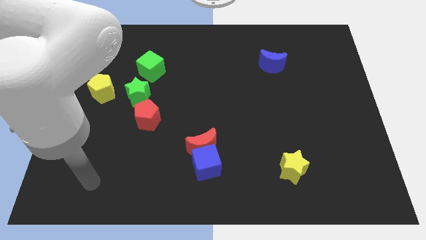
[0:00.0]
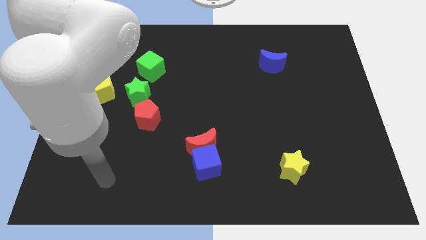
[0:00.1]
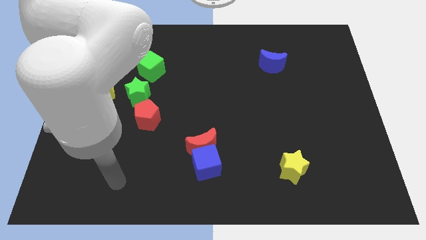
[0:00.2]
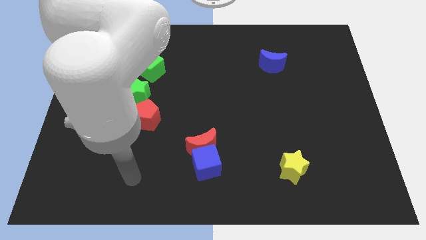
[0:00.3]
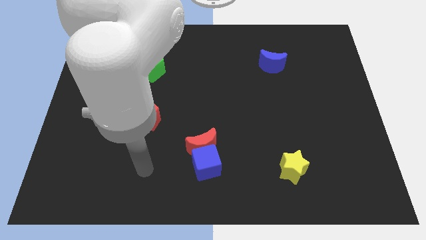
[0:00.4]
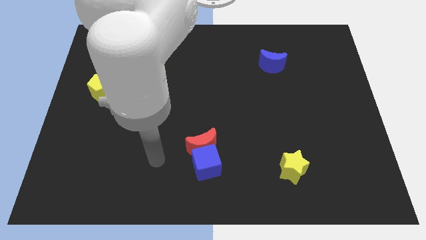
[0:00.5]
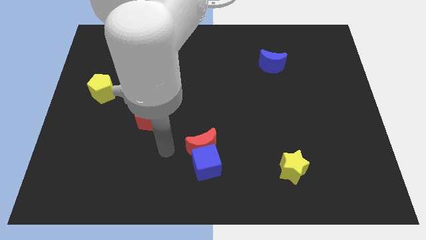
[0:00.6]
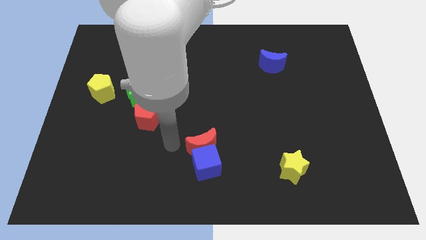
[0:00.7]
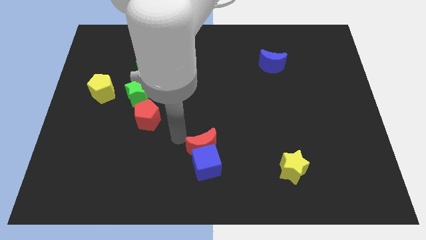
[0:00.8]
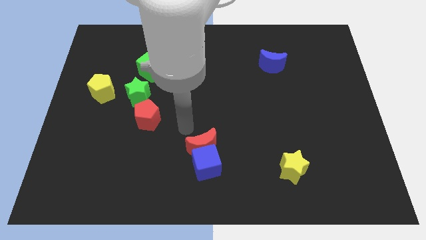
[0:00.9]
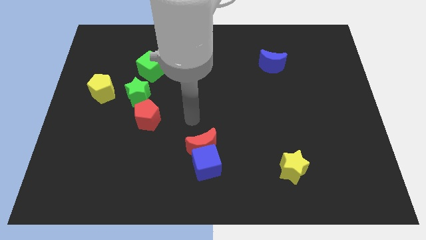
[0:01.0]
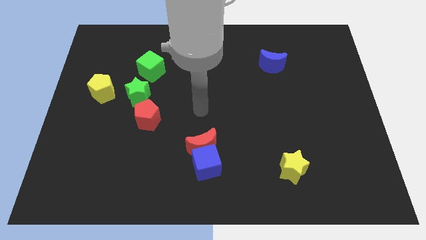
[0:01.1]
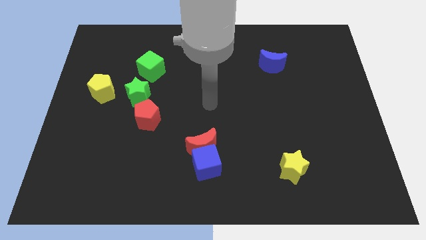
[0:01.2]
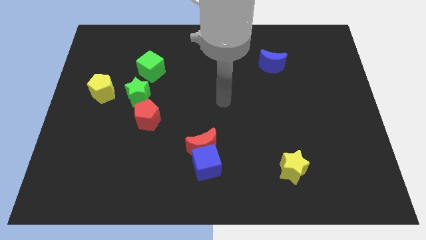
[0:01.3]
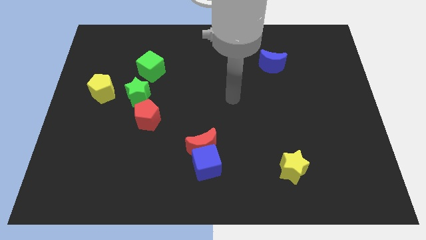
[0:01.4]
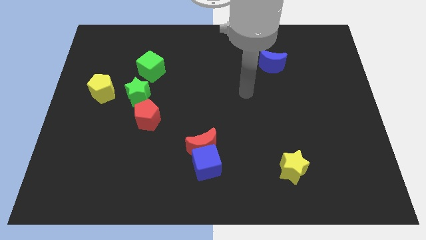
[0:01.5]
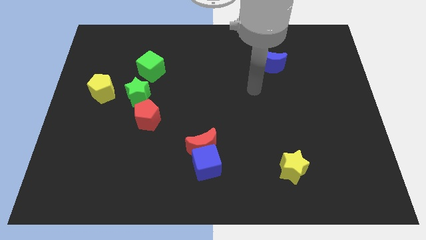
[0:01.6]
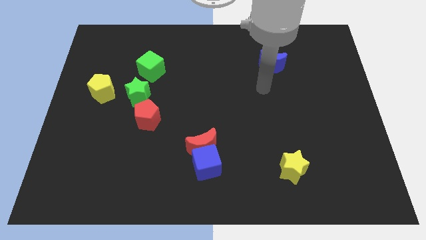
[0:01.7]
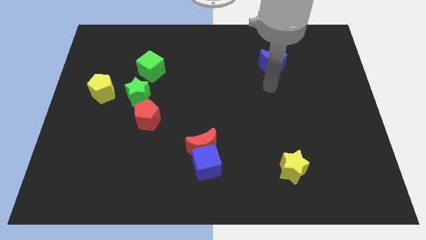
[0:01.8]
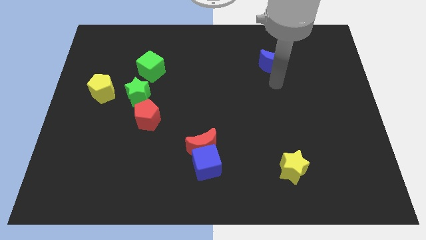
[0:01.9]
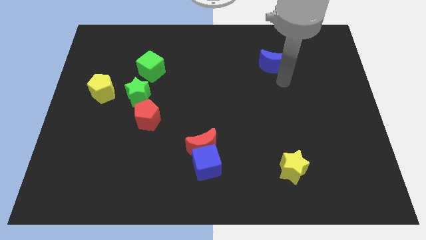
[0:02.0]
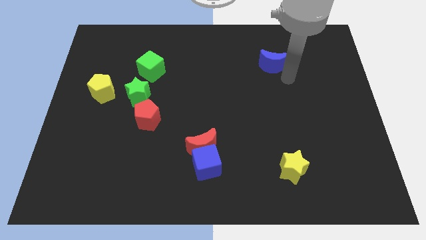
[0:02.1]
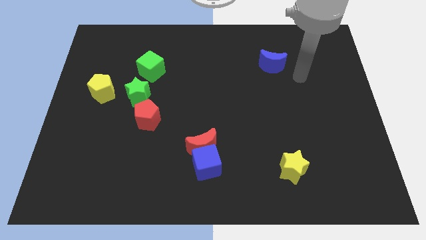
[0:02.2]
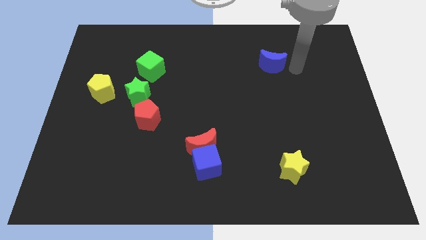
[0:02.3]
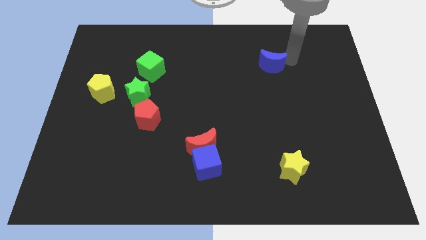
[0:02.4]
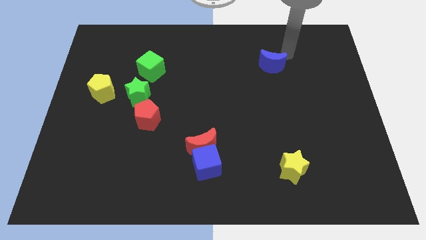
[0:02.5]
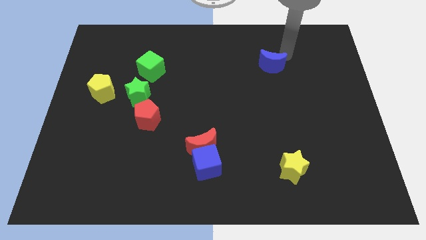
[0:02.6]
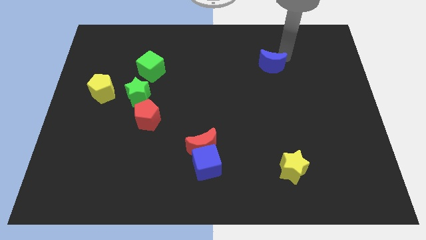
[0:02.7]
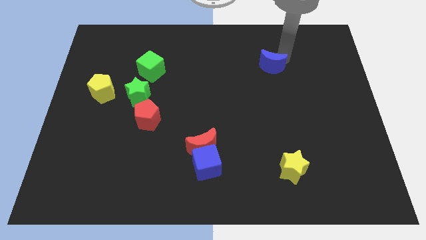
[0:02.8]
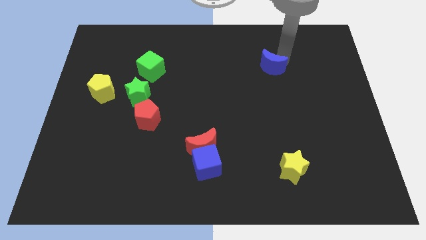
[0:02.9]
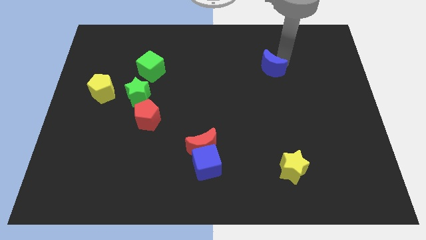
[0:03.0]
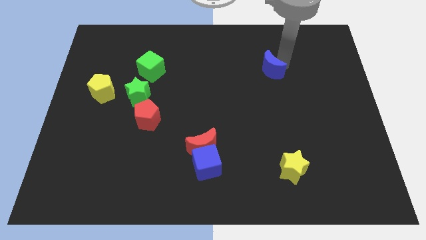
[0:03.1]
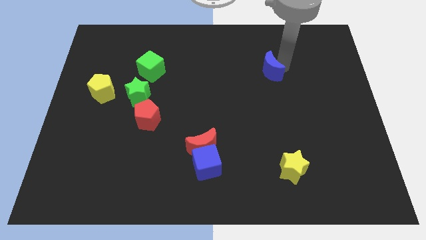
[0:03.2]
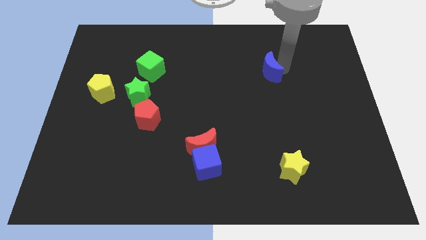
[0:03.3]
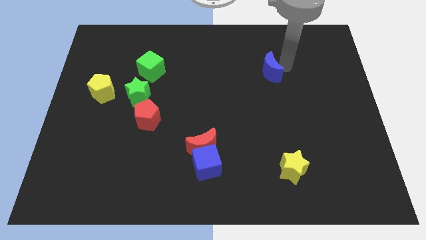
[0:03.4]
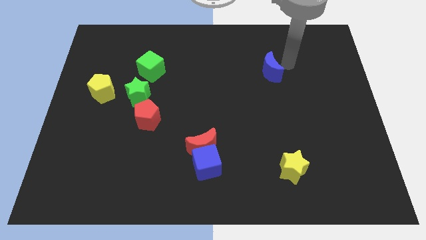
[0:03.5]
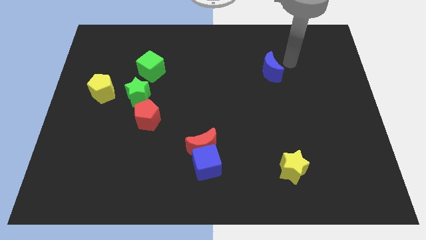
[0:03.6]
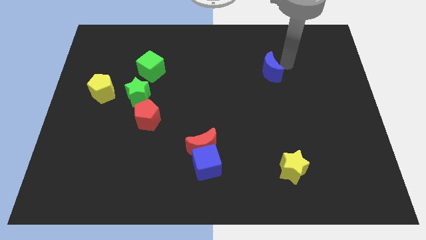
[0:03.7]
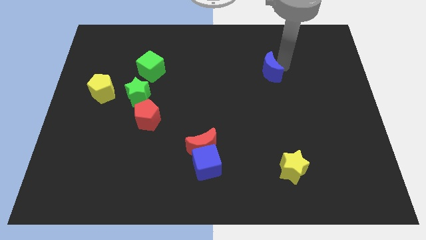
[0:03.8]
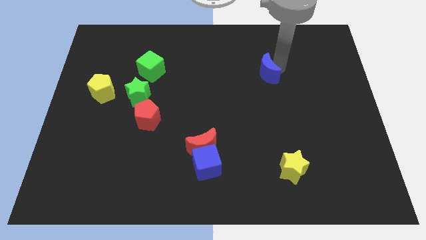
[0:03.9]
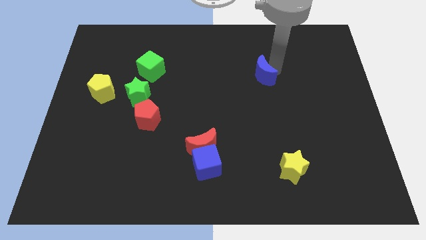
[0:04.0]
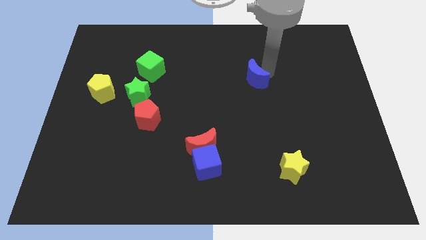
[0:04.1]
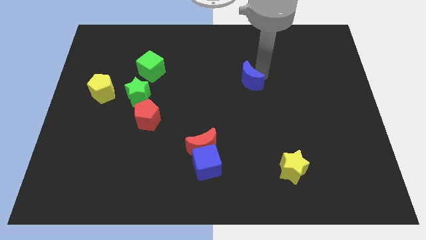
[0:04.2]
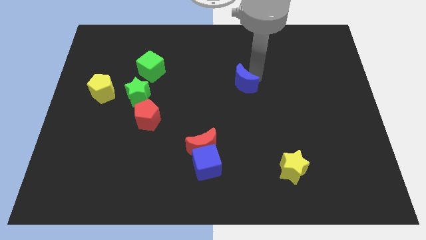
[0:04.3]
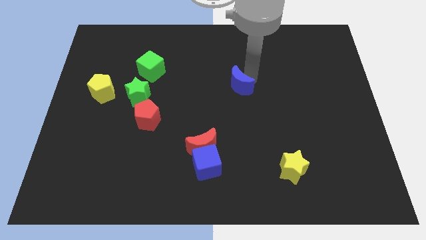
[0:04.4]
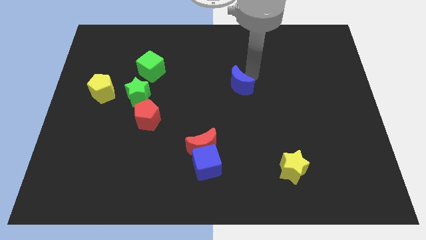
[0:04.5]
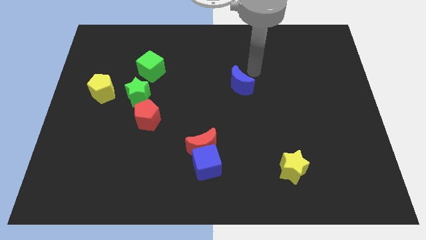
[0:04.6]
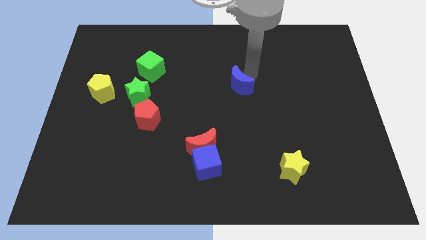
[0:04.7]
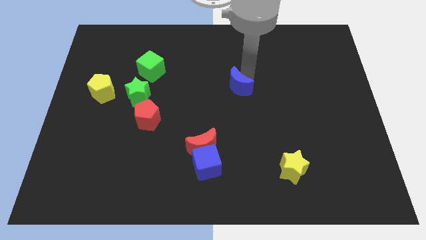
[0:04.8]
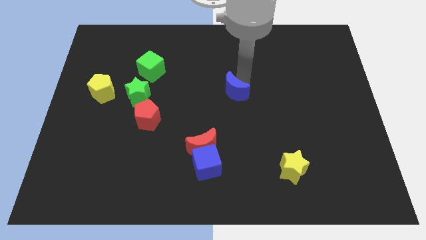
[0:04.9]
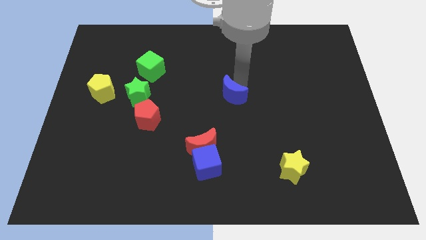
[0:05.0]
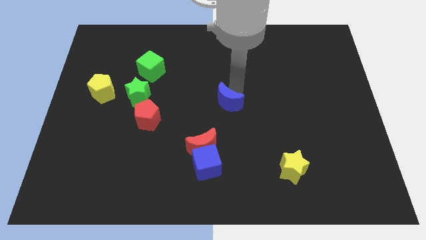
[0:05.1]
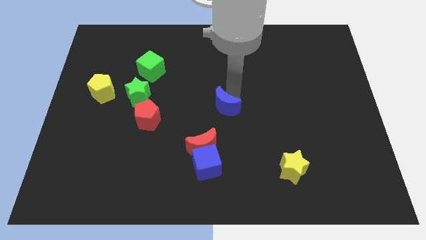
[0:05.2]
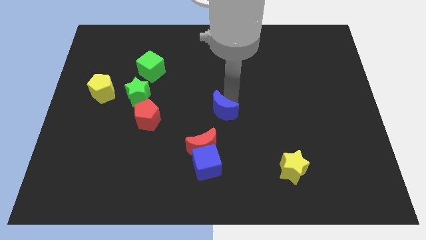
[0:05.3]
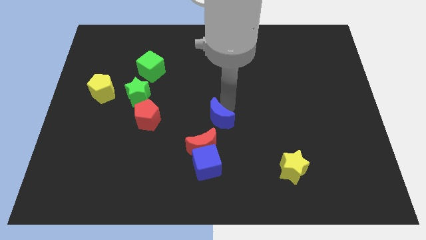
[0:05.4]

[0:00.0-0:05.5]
push the blue moon diagonally downwards and left

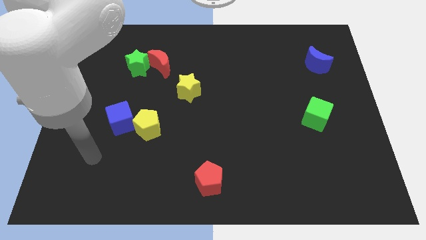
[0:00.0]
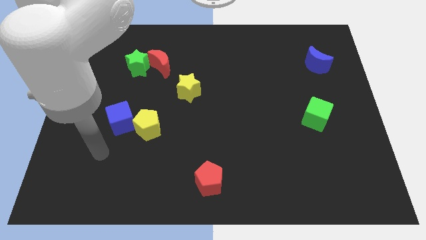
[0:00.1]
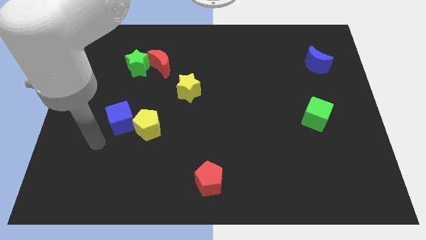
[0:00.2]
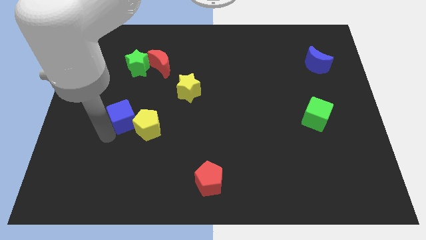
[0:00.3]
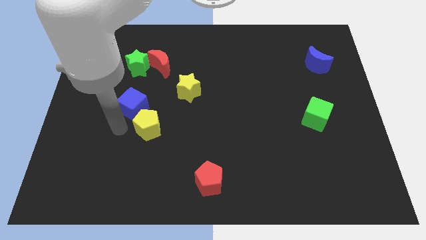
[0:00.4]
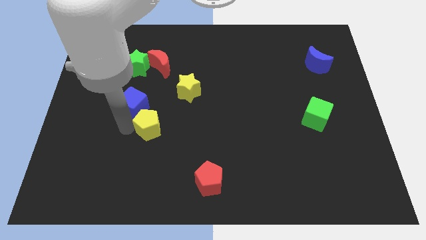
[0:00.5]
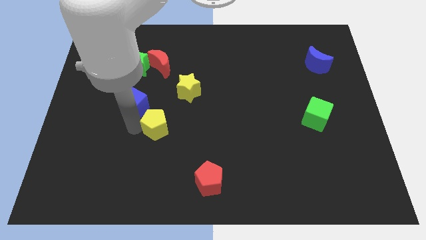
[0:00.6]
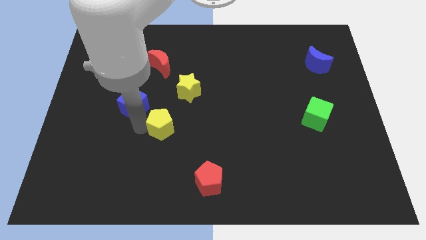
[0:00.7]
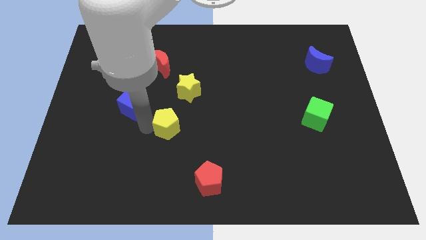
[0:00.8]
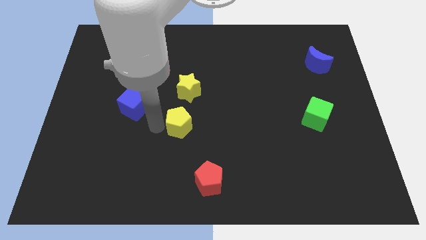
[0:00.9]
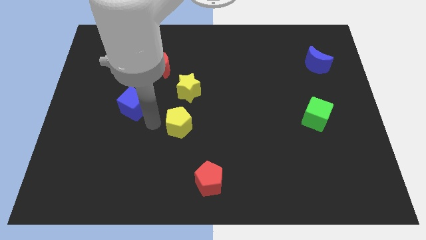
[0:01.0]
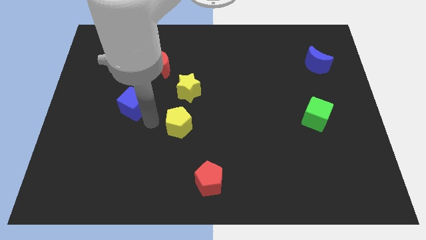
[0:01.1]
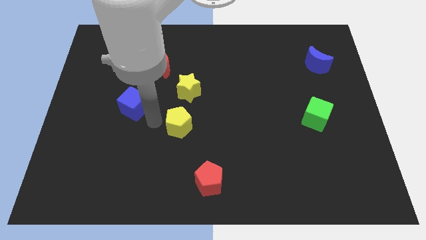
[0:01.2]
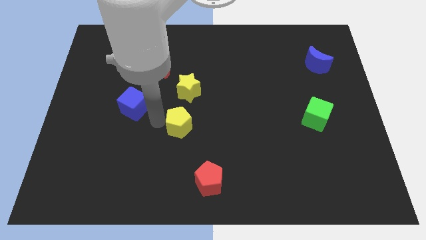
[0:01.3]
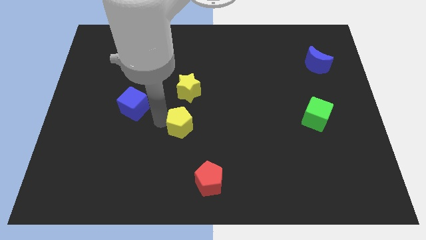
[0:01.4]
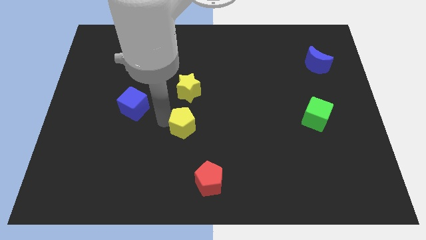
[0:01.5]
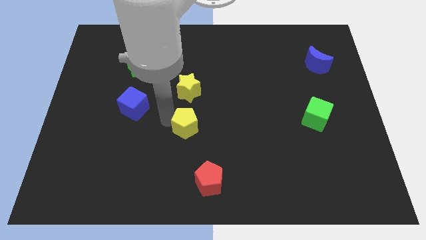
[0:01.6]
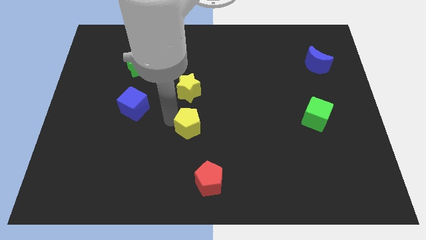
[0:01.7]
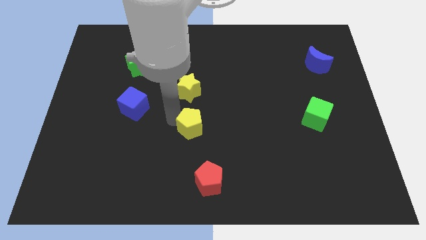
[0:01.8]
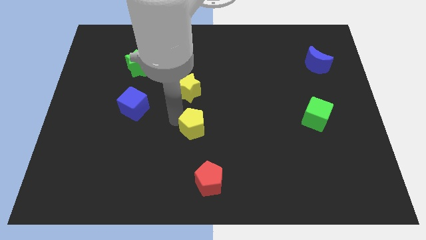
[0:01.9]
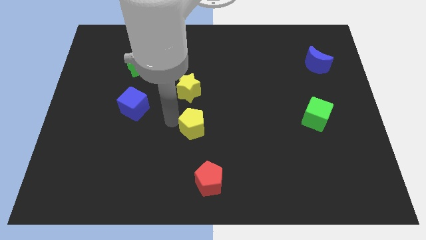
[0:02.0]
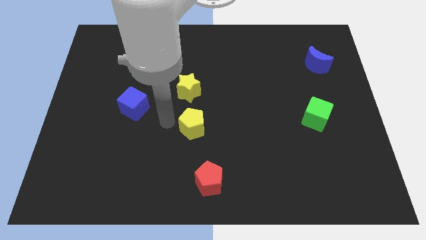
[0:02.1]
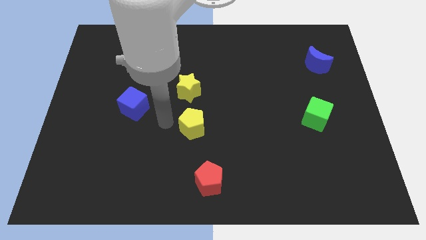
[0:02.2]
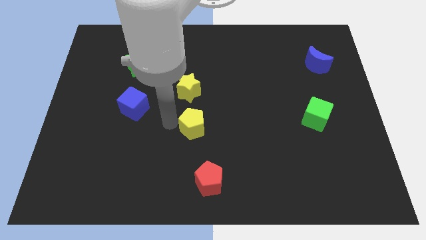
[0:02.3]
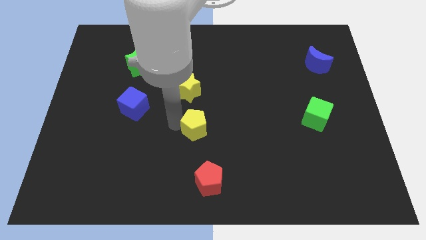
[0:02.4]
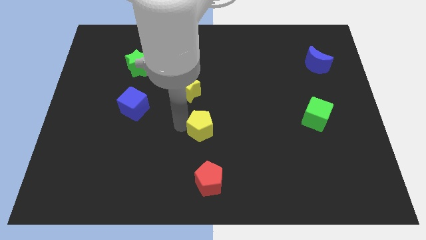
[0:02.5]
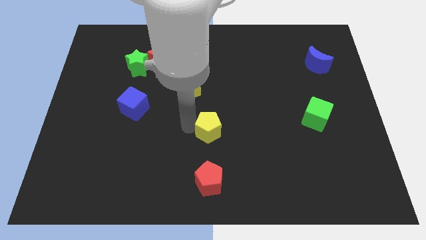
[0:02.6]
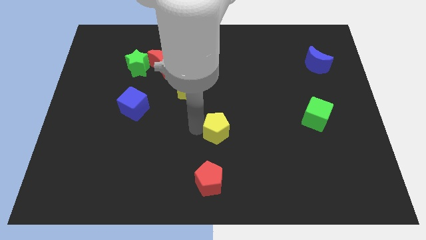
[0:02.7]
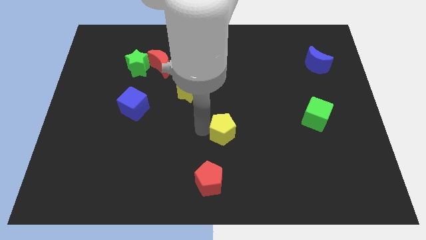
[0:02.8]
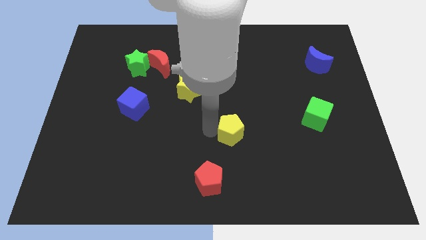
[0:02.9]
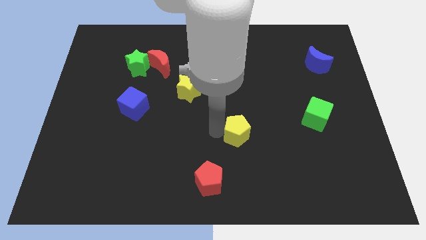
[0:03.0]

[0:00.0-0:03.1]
slide the yellow pentagon right
